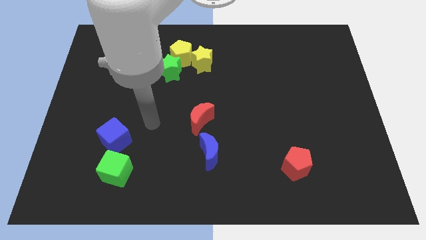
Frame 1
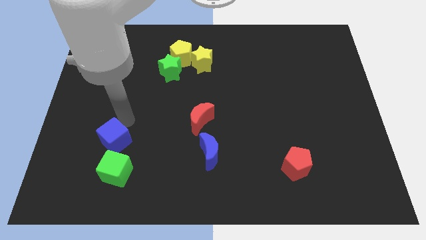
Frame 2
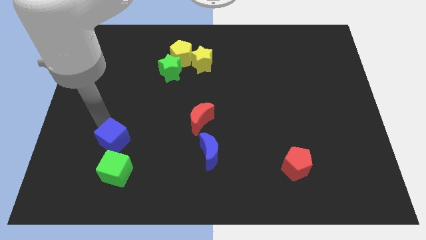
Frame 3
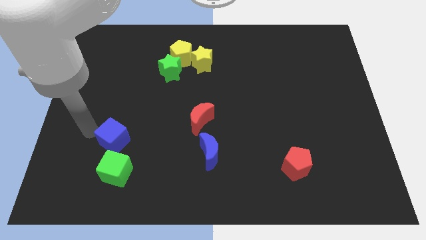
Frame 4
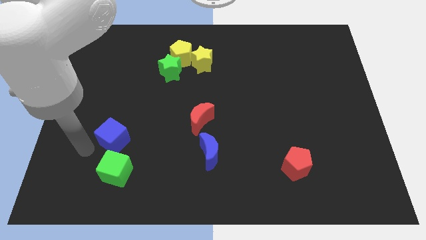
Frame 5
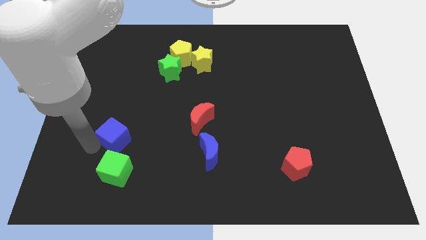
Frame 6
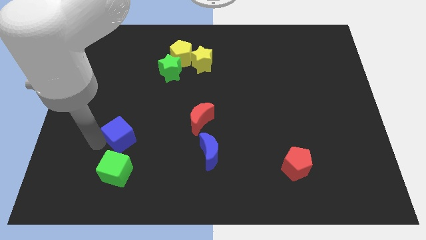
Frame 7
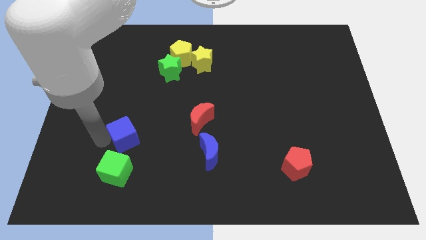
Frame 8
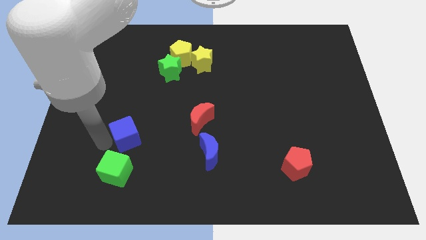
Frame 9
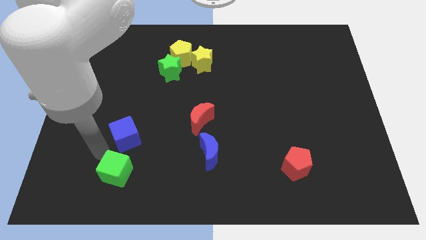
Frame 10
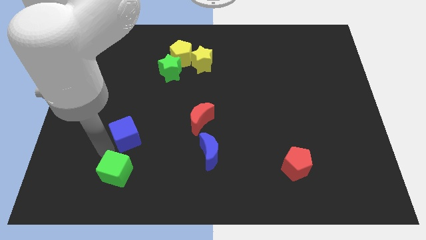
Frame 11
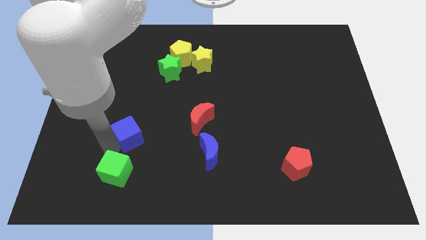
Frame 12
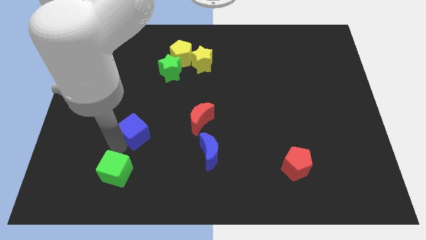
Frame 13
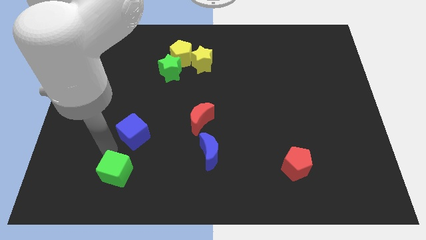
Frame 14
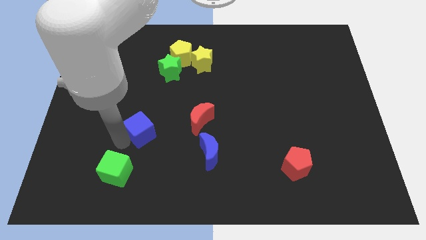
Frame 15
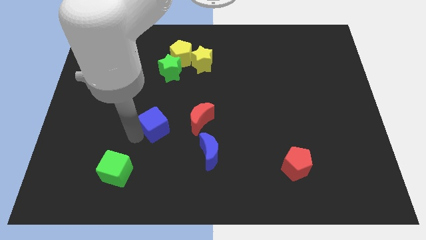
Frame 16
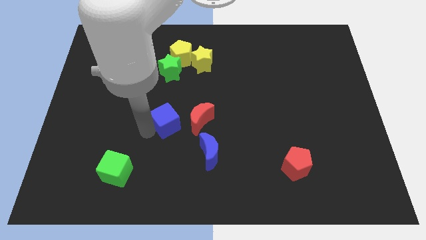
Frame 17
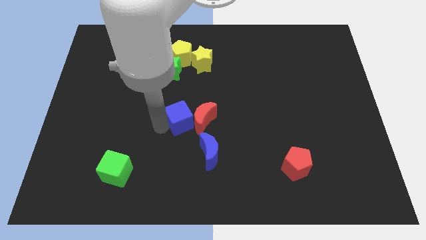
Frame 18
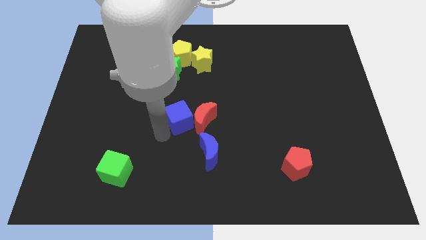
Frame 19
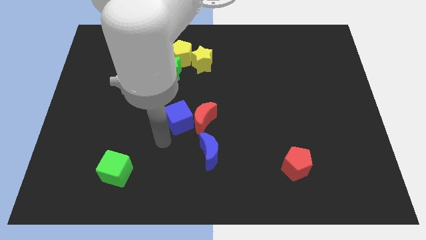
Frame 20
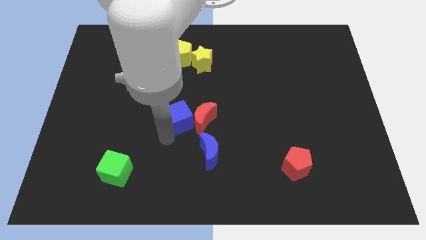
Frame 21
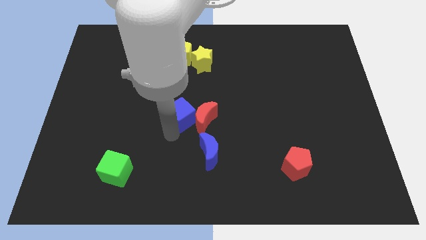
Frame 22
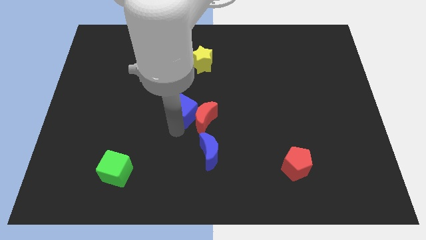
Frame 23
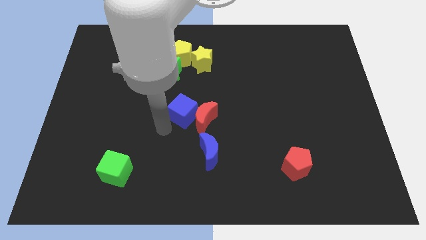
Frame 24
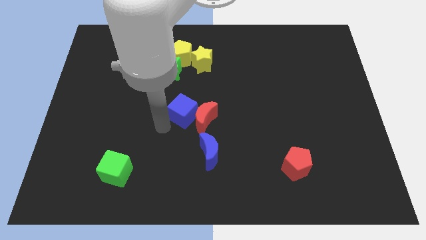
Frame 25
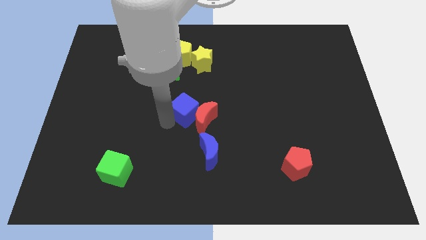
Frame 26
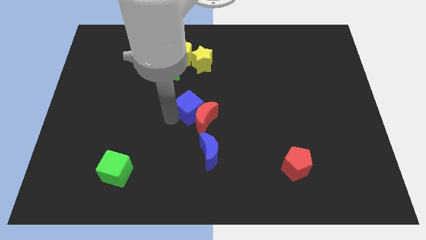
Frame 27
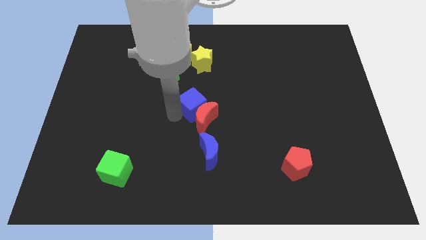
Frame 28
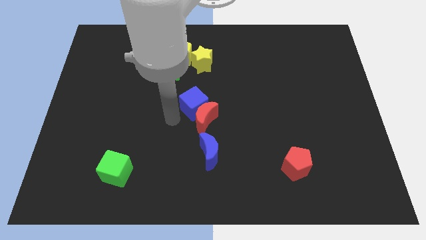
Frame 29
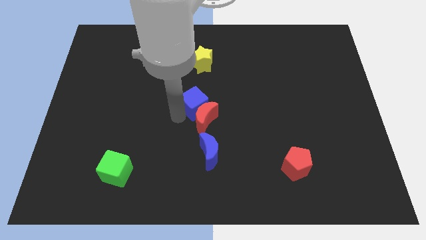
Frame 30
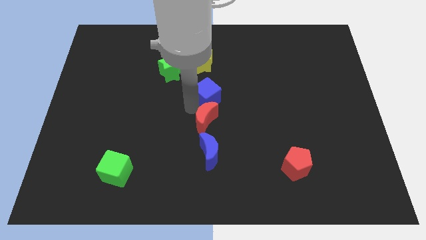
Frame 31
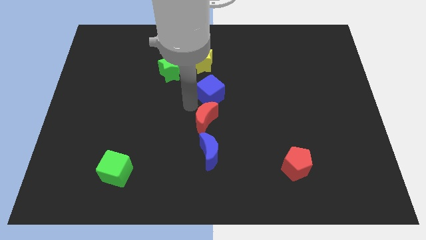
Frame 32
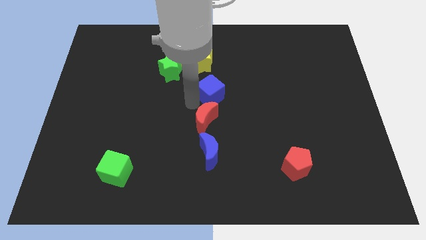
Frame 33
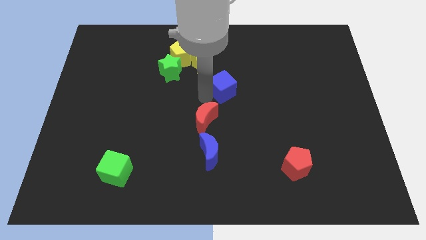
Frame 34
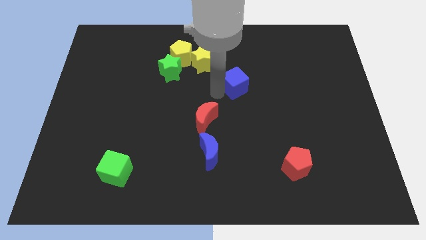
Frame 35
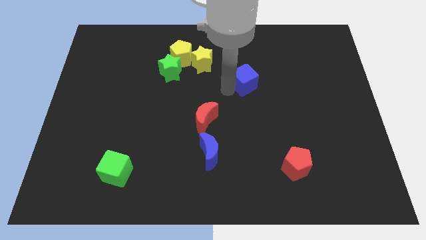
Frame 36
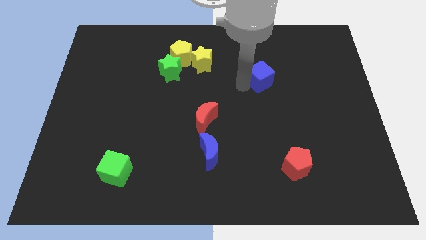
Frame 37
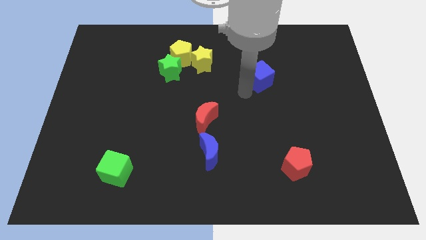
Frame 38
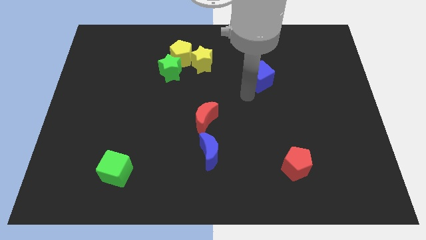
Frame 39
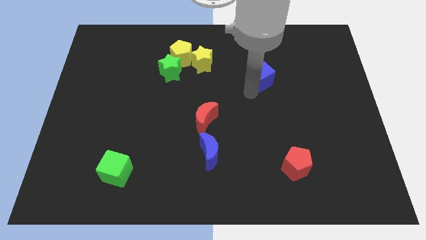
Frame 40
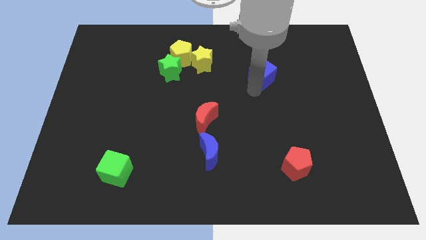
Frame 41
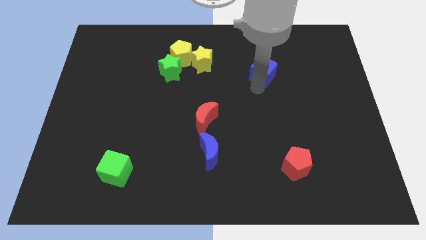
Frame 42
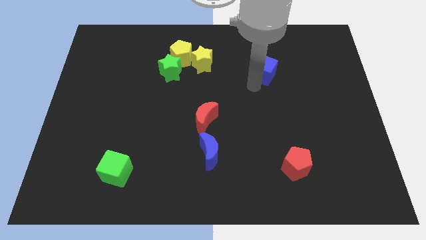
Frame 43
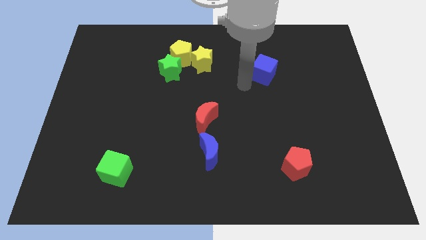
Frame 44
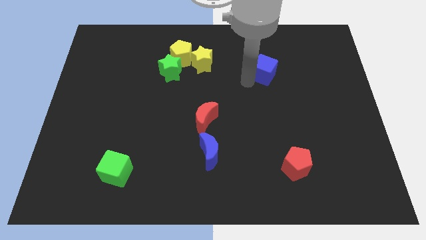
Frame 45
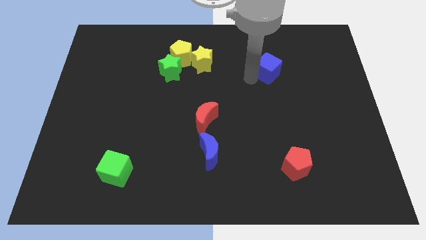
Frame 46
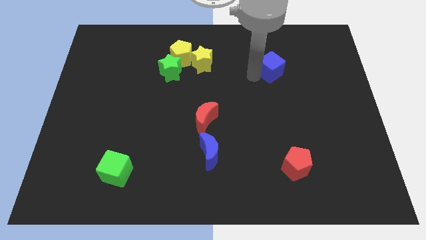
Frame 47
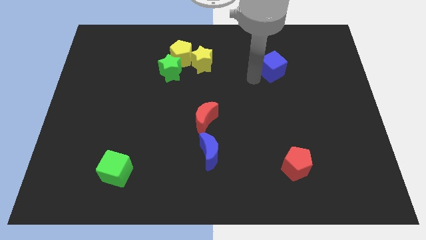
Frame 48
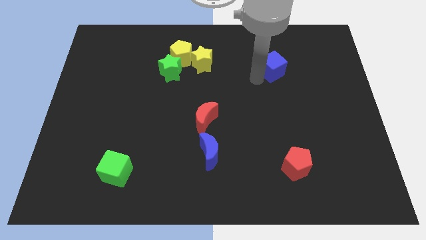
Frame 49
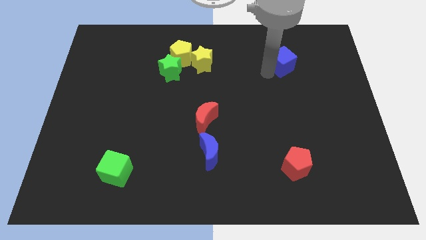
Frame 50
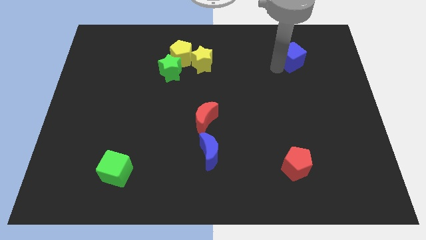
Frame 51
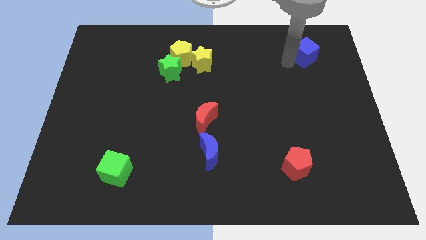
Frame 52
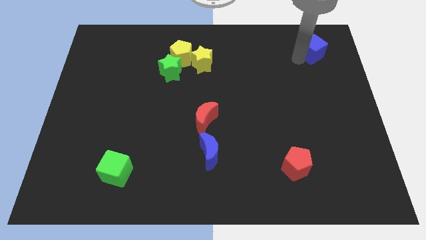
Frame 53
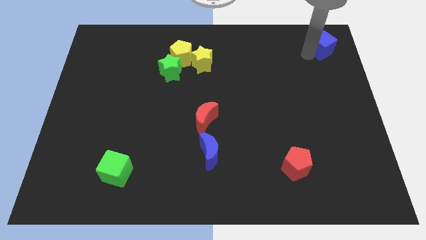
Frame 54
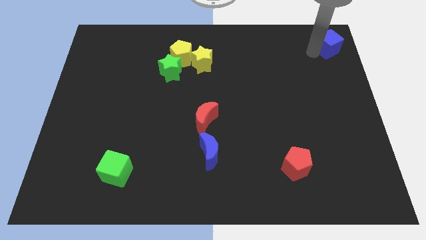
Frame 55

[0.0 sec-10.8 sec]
slide the blue cube to the top right corner
